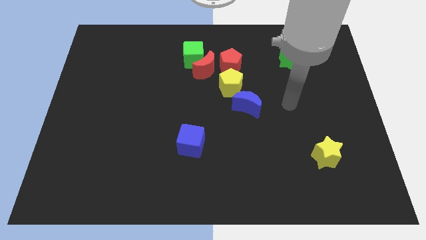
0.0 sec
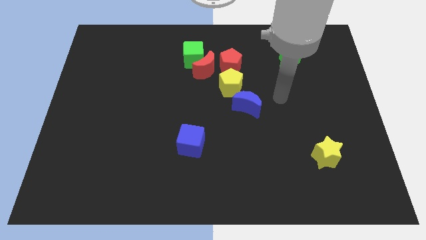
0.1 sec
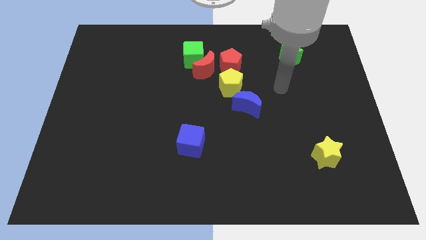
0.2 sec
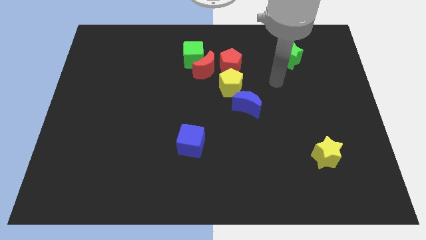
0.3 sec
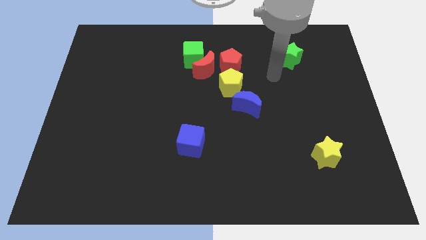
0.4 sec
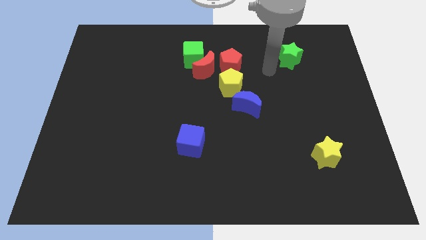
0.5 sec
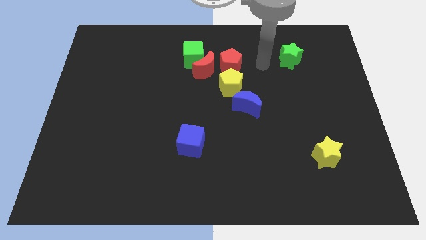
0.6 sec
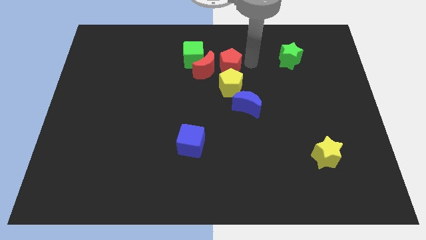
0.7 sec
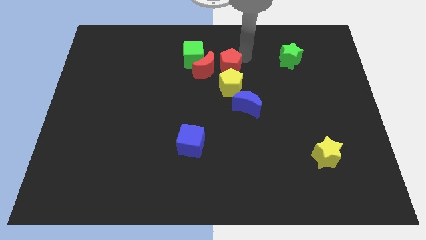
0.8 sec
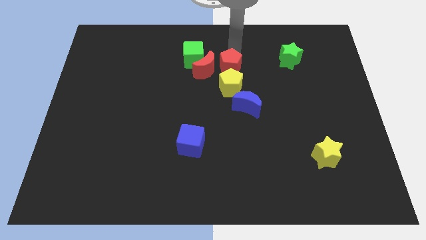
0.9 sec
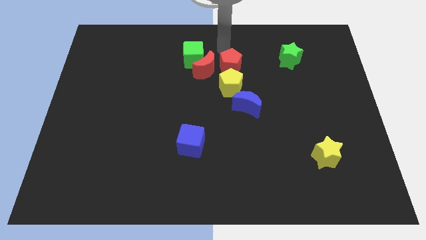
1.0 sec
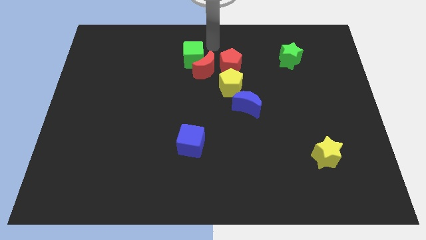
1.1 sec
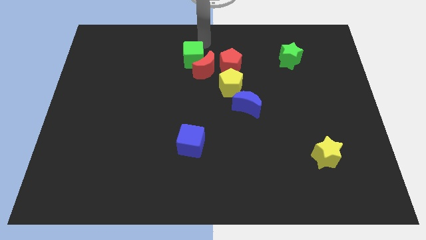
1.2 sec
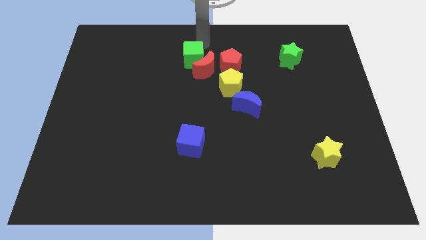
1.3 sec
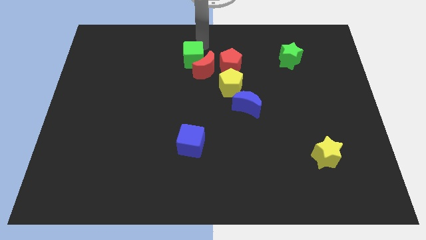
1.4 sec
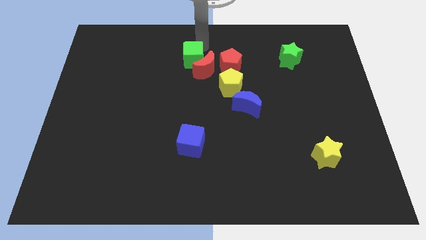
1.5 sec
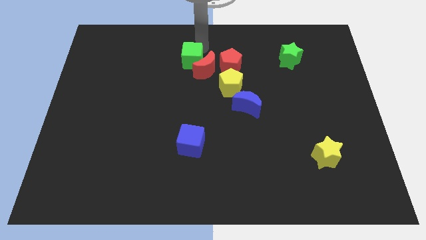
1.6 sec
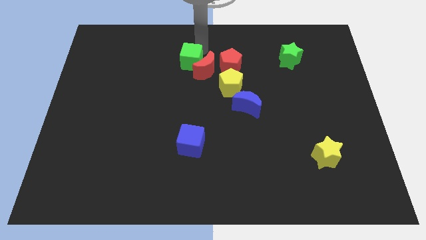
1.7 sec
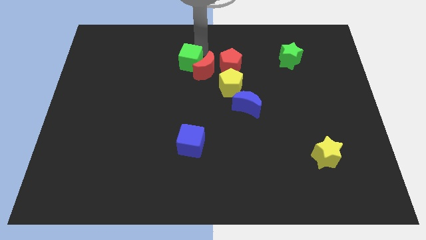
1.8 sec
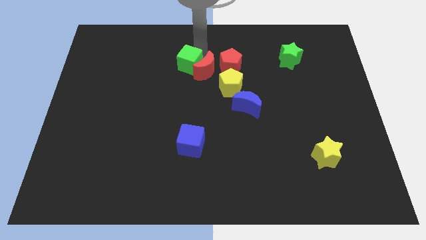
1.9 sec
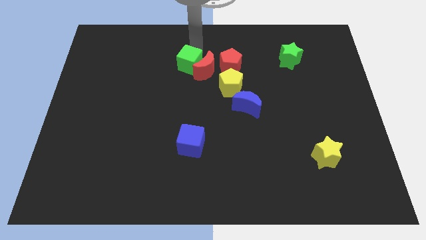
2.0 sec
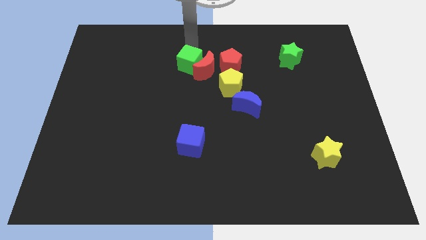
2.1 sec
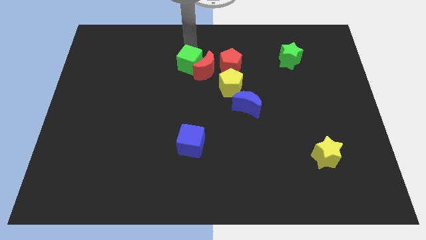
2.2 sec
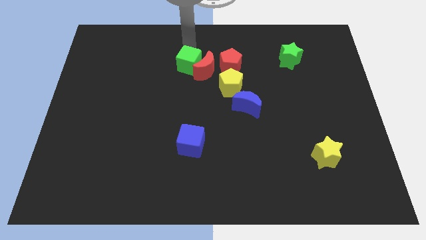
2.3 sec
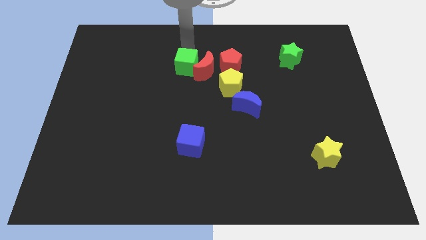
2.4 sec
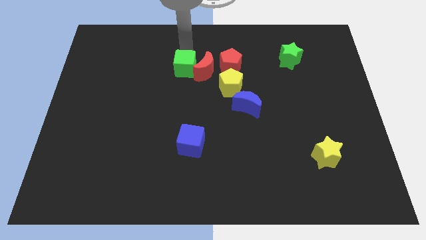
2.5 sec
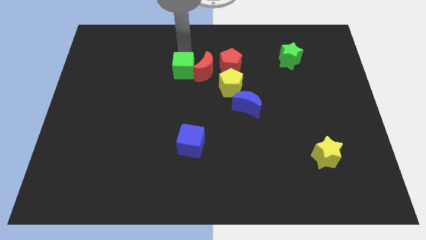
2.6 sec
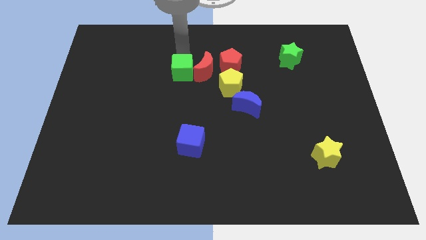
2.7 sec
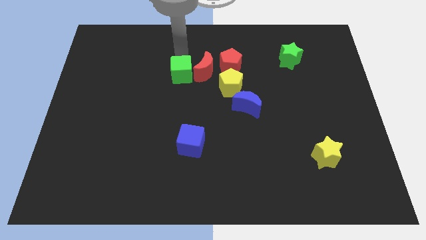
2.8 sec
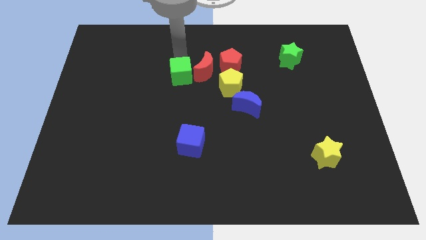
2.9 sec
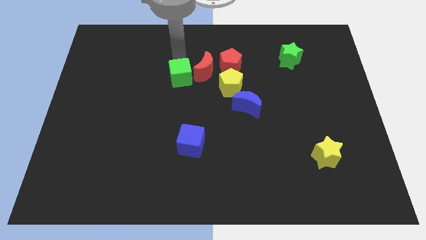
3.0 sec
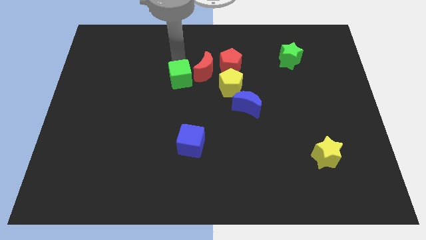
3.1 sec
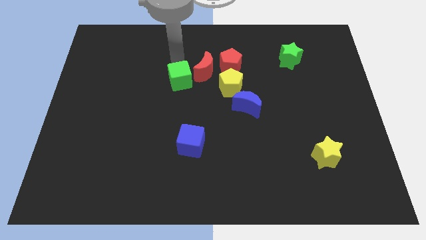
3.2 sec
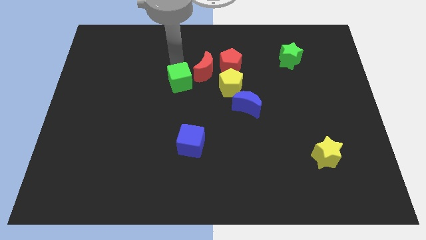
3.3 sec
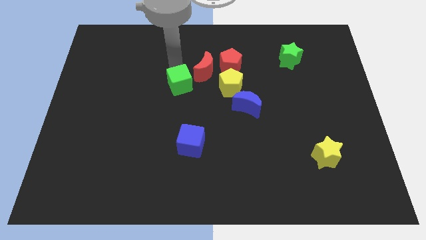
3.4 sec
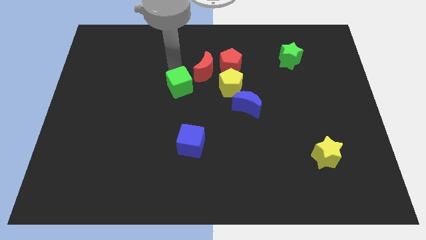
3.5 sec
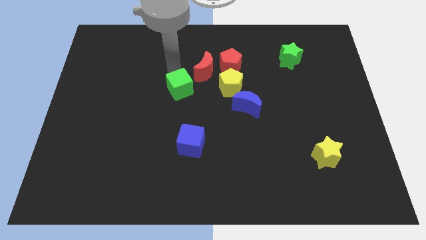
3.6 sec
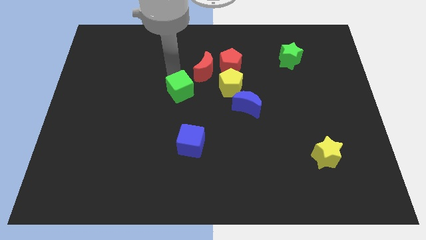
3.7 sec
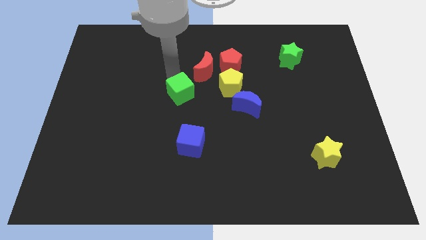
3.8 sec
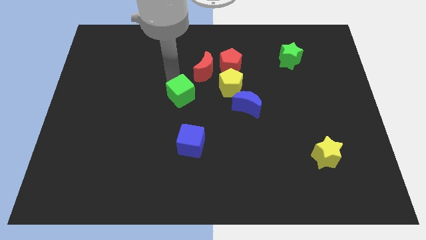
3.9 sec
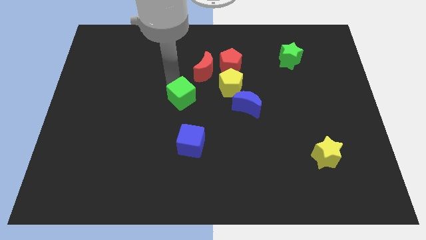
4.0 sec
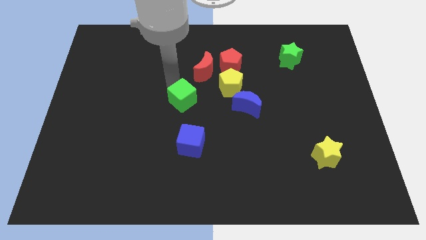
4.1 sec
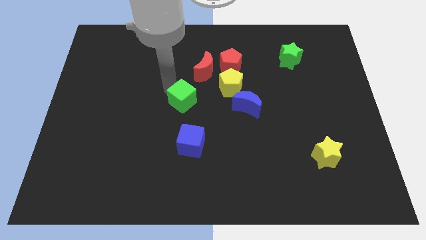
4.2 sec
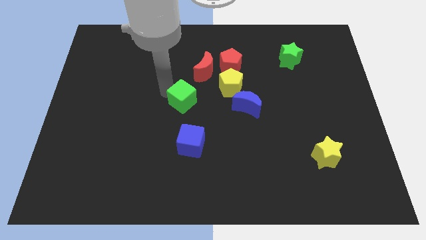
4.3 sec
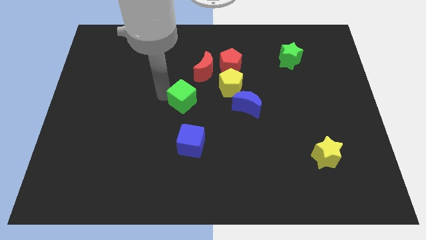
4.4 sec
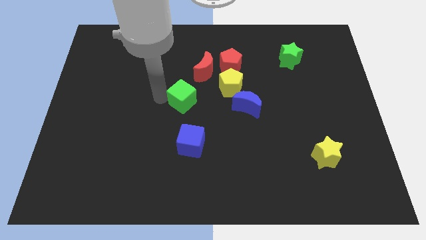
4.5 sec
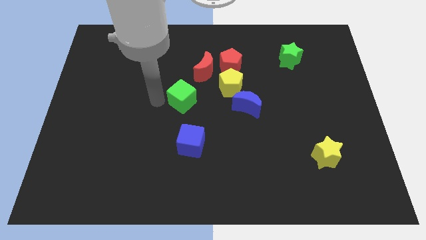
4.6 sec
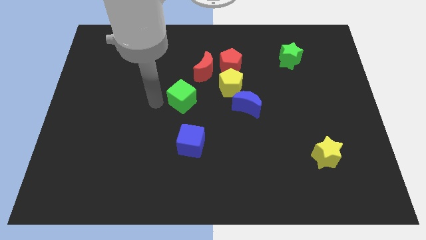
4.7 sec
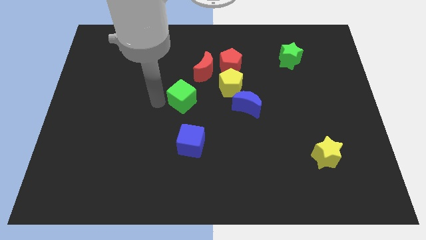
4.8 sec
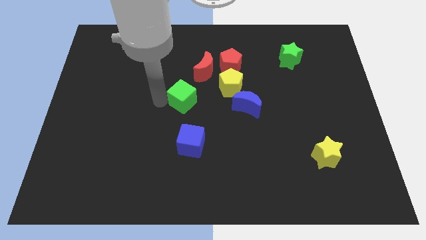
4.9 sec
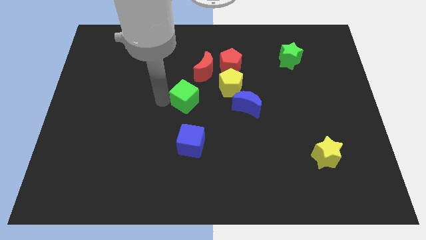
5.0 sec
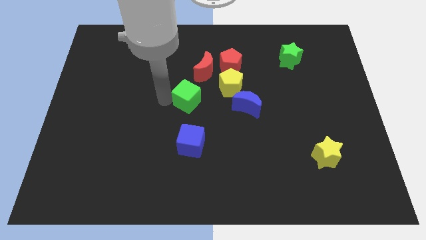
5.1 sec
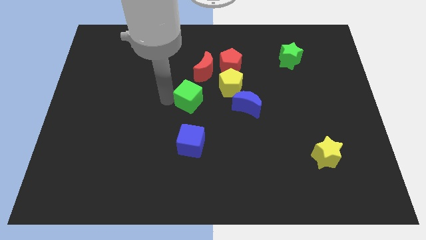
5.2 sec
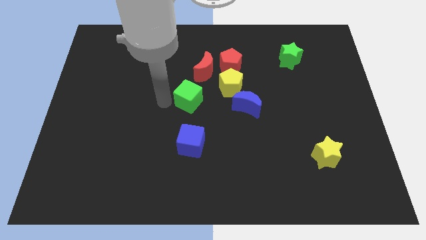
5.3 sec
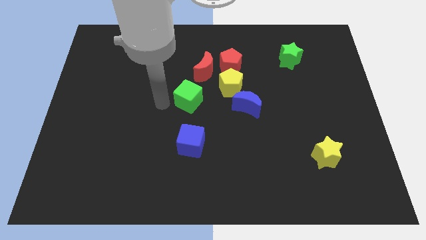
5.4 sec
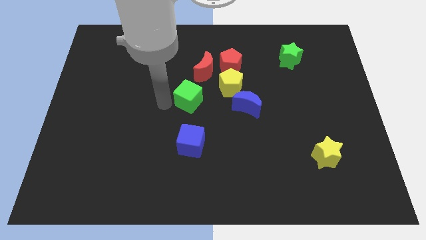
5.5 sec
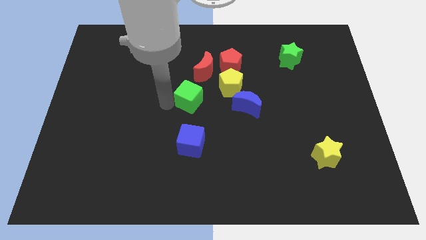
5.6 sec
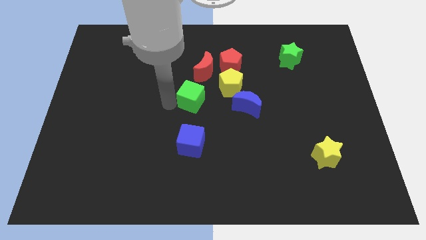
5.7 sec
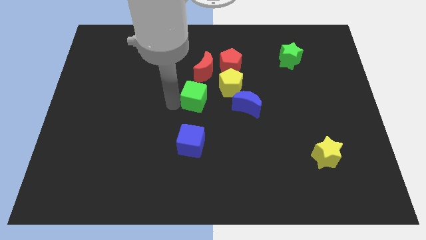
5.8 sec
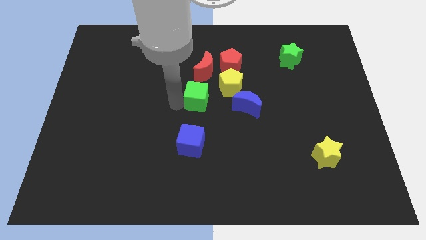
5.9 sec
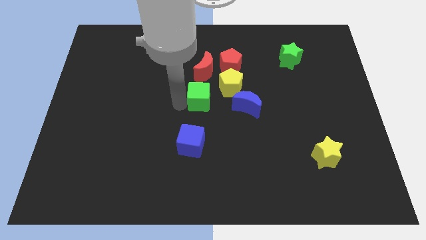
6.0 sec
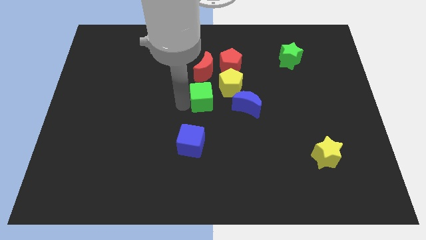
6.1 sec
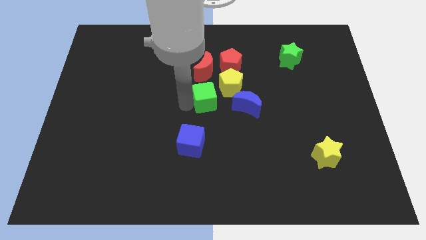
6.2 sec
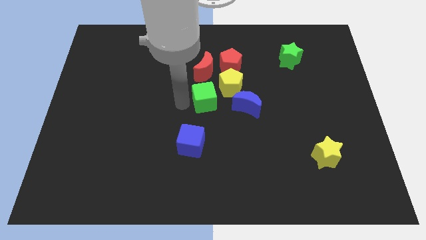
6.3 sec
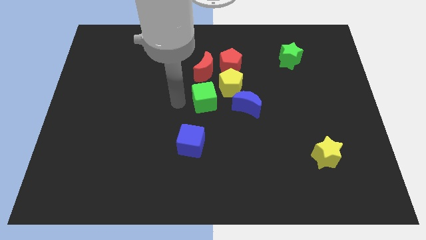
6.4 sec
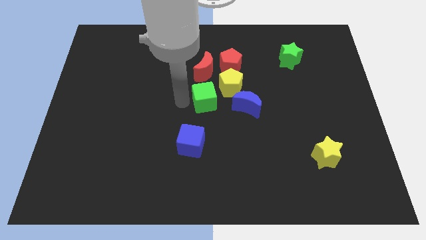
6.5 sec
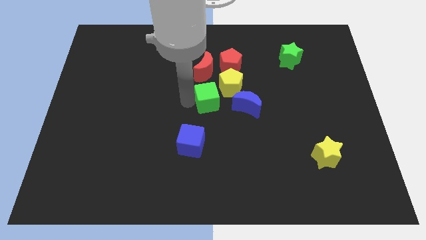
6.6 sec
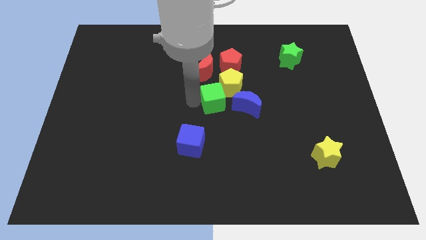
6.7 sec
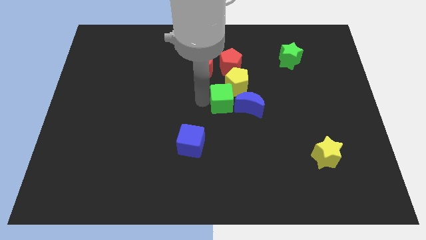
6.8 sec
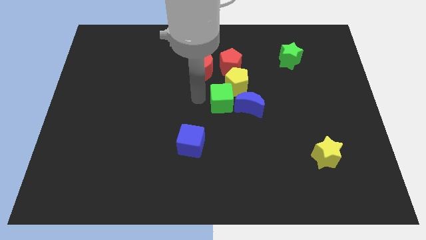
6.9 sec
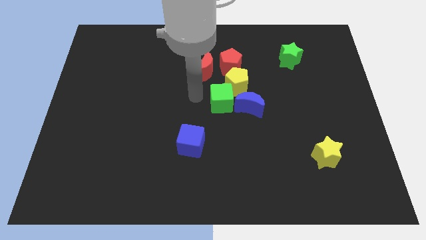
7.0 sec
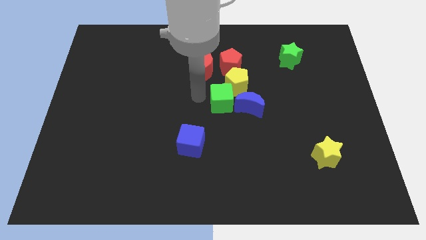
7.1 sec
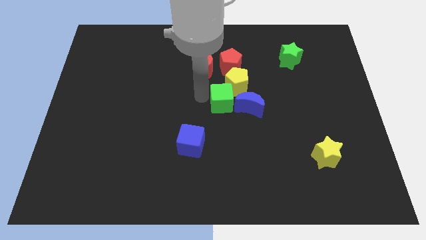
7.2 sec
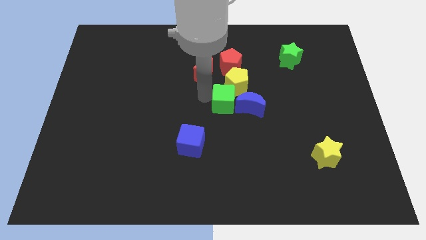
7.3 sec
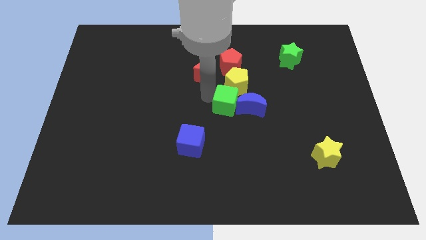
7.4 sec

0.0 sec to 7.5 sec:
move the green cube to the blue moon
